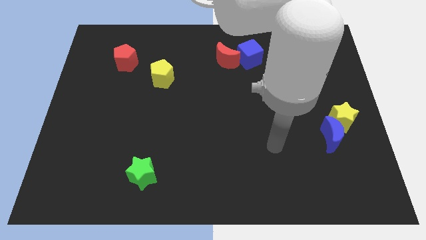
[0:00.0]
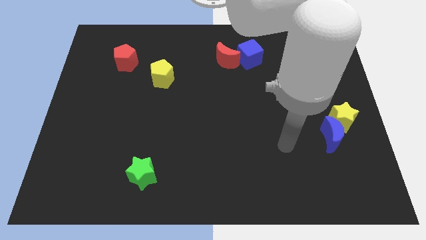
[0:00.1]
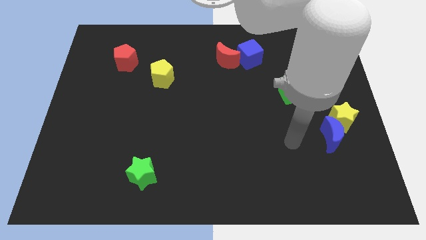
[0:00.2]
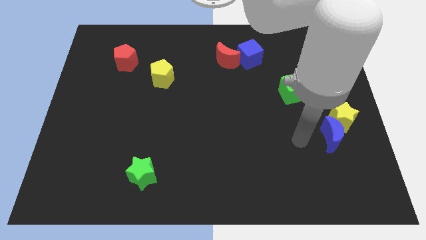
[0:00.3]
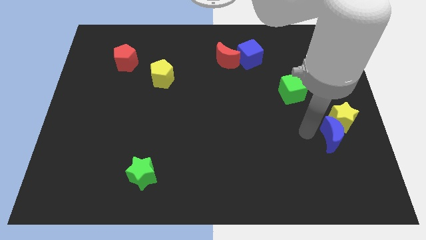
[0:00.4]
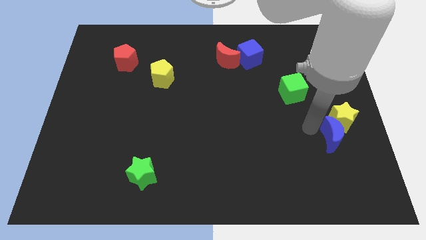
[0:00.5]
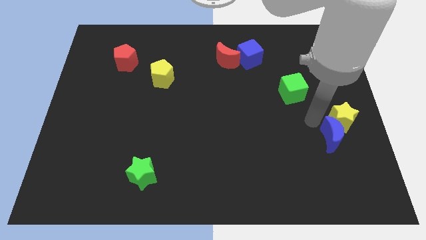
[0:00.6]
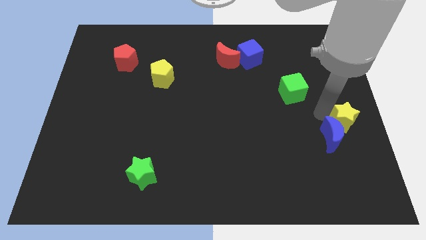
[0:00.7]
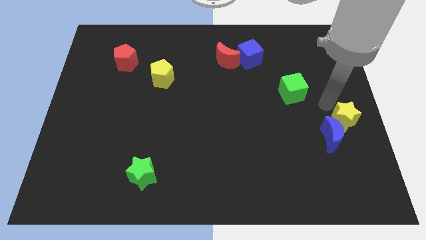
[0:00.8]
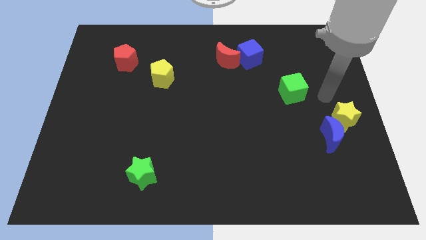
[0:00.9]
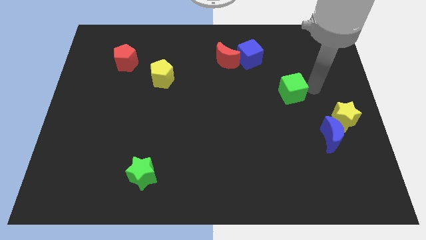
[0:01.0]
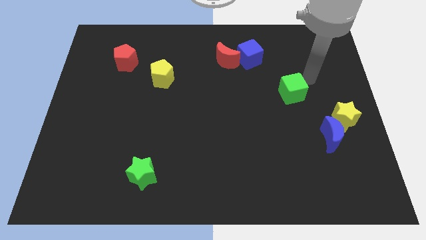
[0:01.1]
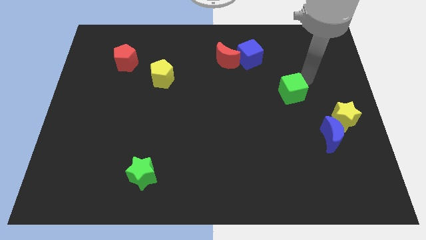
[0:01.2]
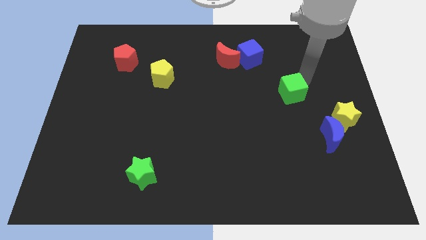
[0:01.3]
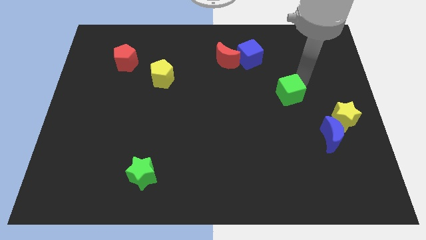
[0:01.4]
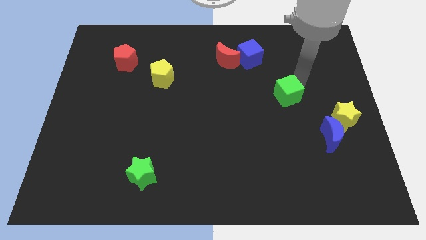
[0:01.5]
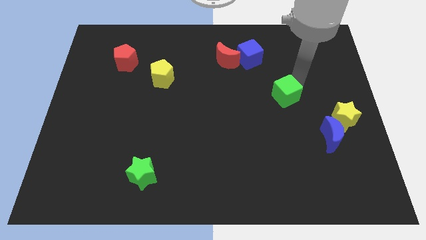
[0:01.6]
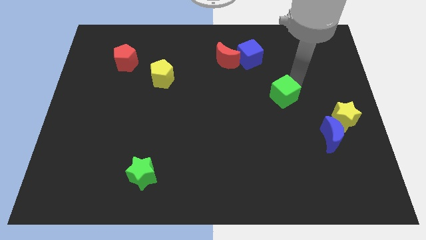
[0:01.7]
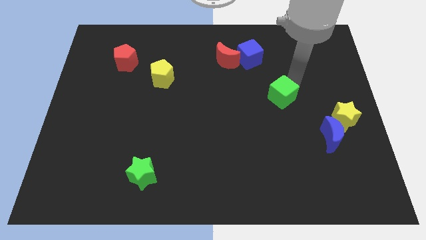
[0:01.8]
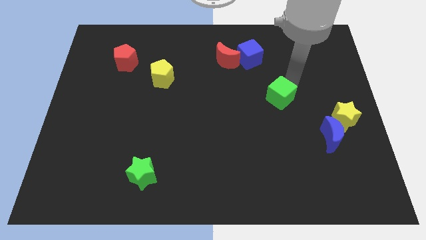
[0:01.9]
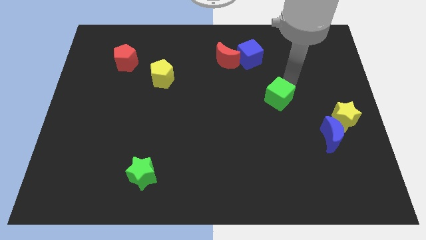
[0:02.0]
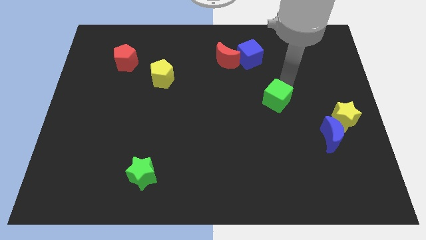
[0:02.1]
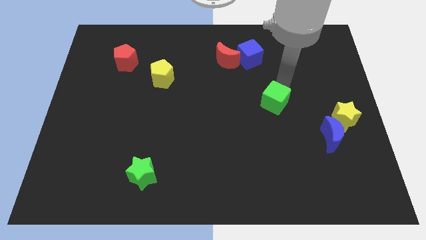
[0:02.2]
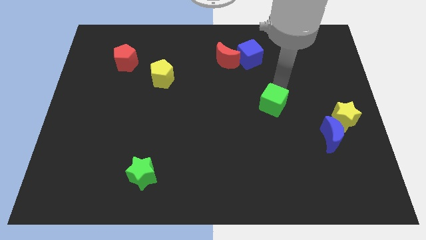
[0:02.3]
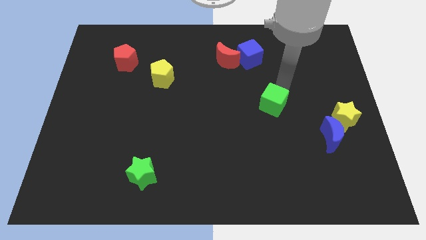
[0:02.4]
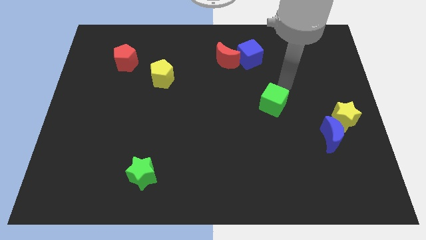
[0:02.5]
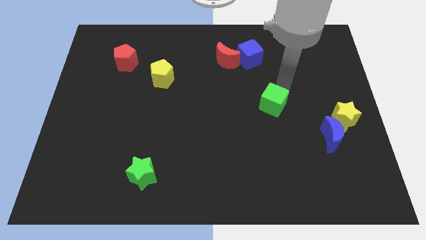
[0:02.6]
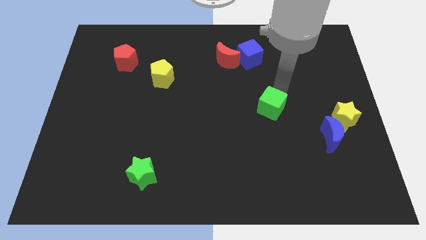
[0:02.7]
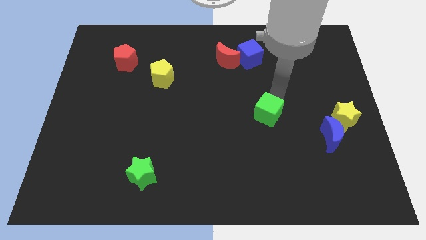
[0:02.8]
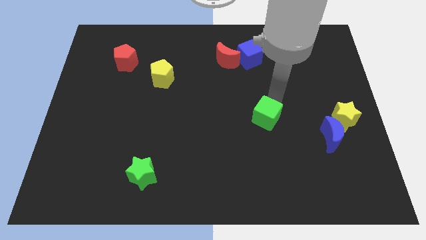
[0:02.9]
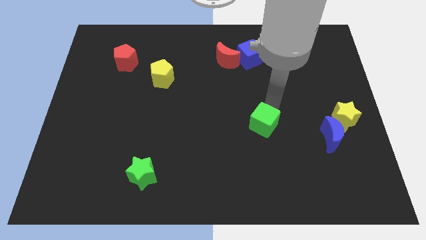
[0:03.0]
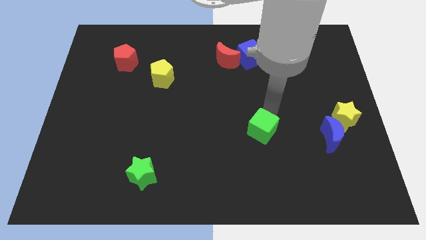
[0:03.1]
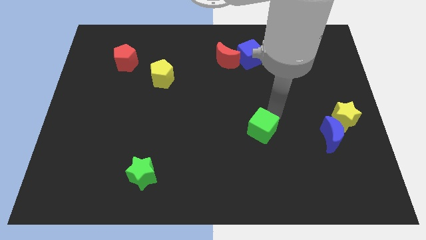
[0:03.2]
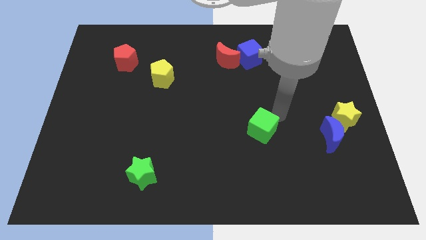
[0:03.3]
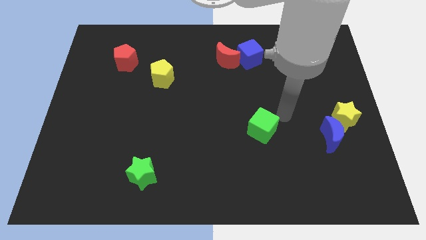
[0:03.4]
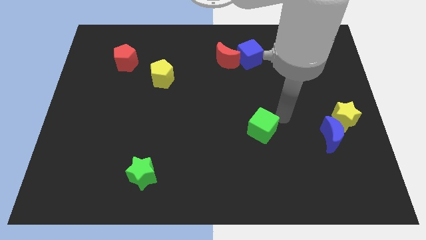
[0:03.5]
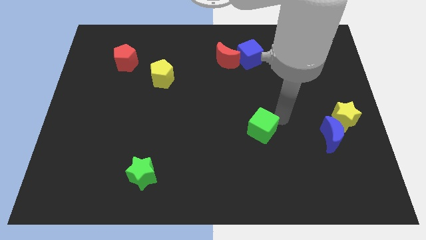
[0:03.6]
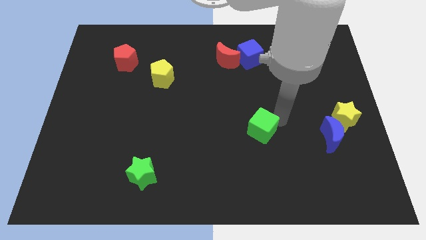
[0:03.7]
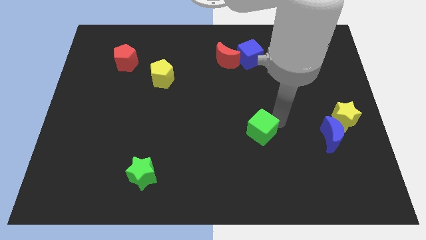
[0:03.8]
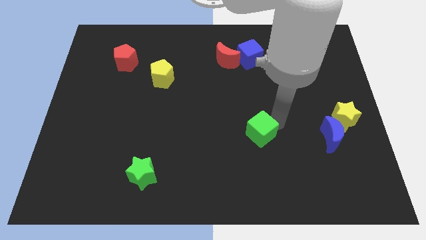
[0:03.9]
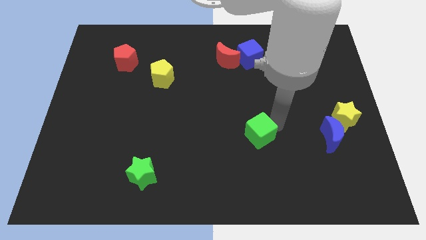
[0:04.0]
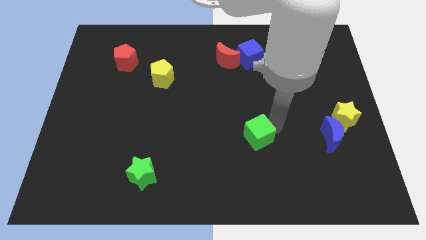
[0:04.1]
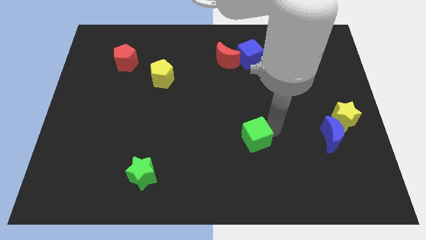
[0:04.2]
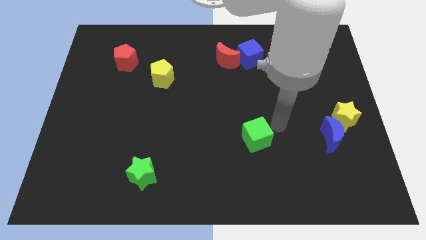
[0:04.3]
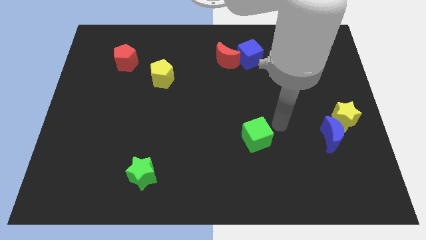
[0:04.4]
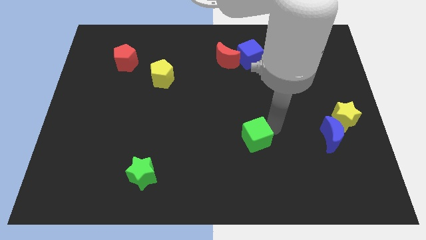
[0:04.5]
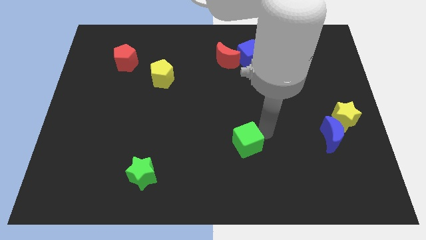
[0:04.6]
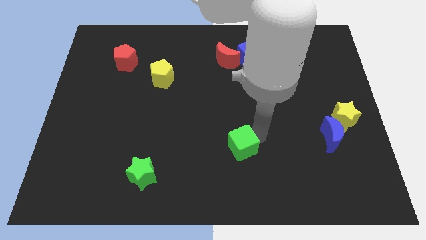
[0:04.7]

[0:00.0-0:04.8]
move the green cube diagonally down and to the left

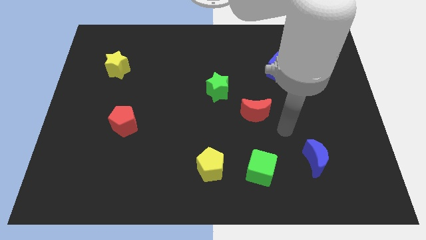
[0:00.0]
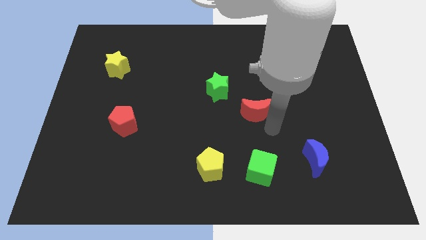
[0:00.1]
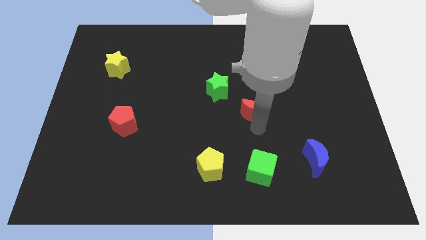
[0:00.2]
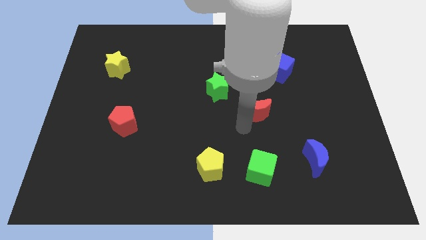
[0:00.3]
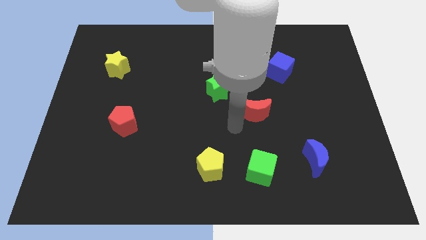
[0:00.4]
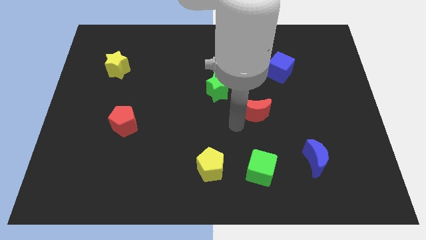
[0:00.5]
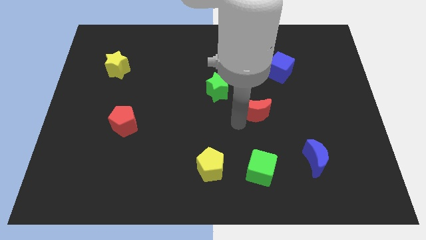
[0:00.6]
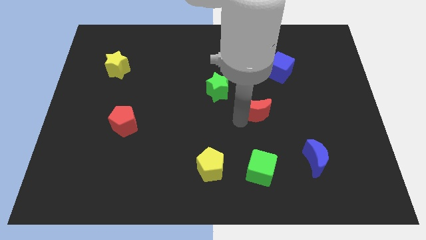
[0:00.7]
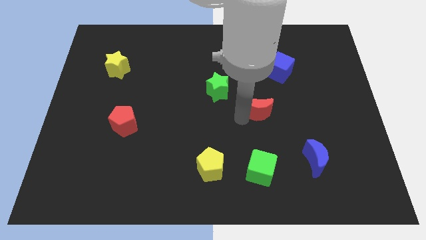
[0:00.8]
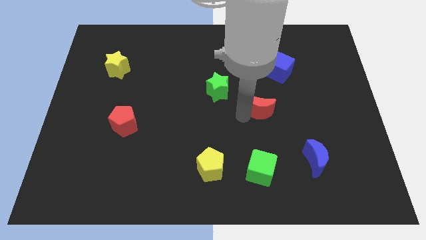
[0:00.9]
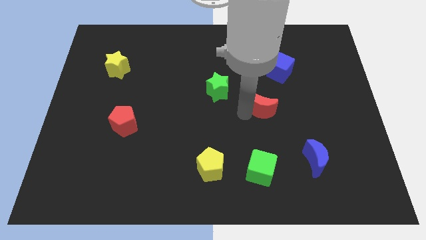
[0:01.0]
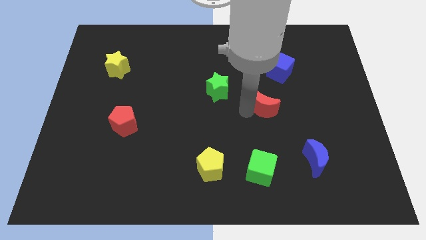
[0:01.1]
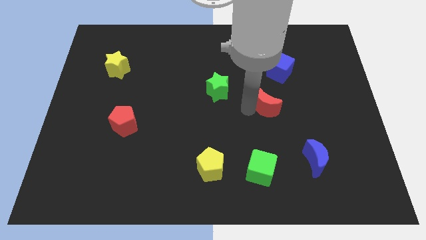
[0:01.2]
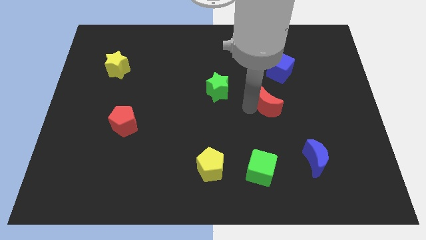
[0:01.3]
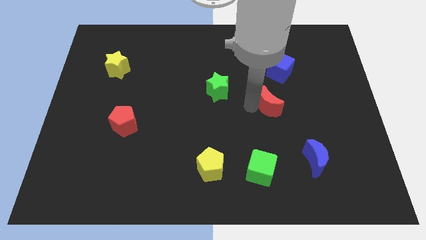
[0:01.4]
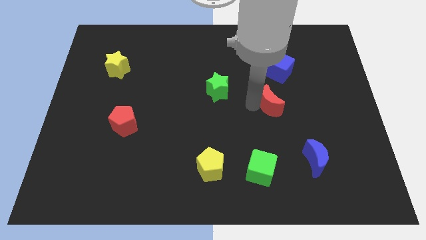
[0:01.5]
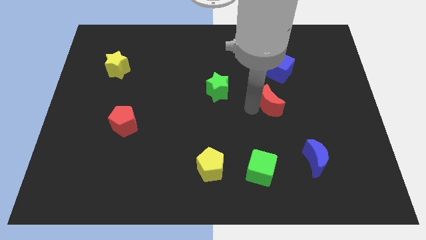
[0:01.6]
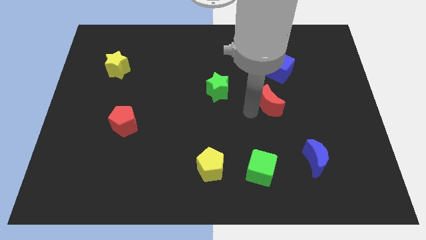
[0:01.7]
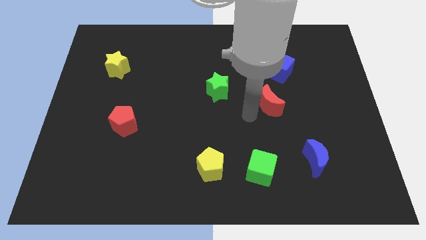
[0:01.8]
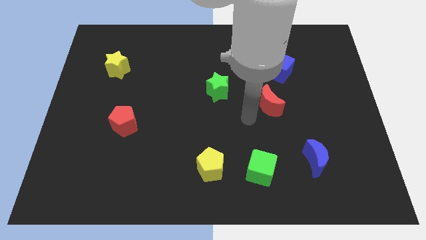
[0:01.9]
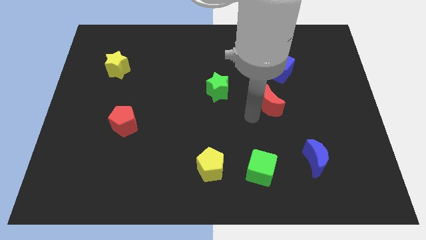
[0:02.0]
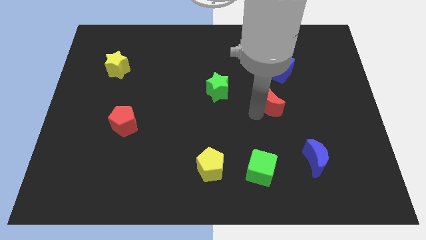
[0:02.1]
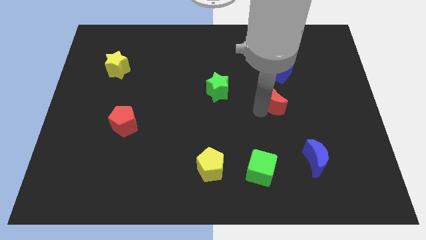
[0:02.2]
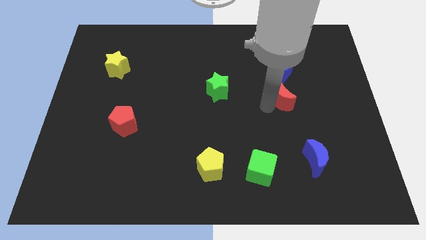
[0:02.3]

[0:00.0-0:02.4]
slide the red moon somewhat up and right diagonally

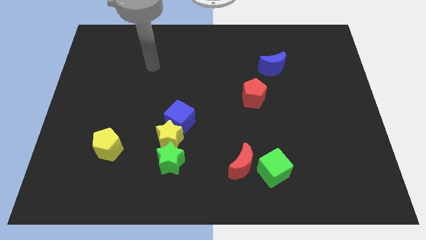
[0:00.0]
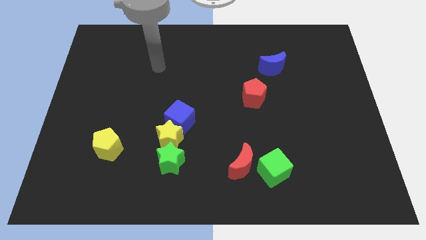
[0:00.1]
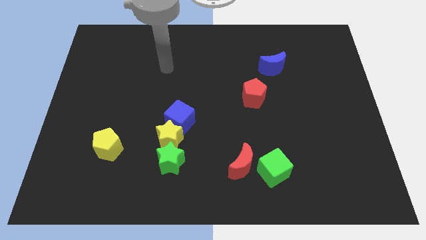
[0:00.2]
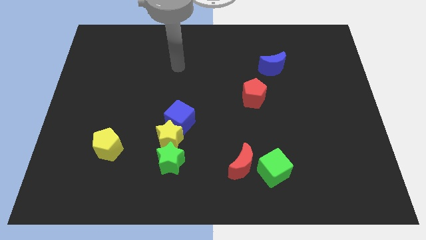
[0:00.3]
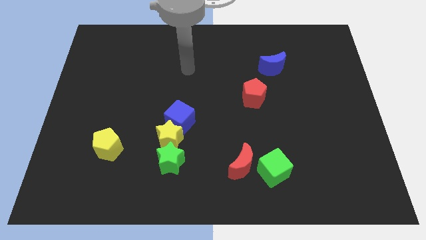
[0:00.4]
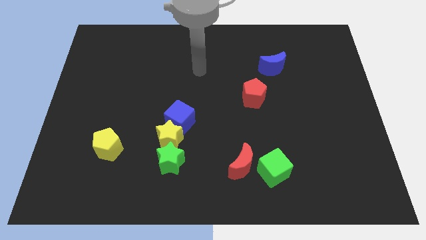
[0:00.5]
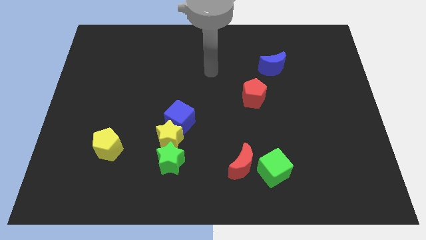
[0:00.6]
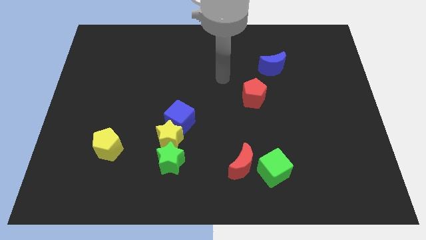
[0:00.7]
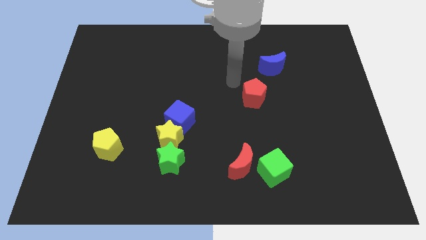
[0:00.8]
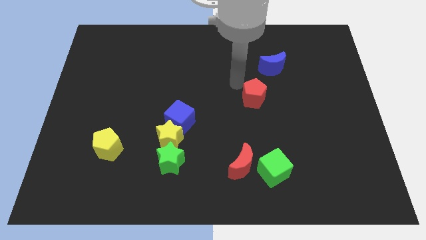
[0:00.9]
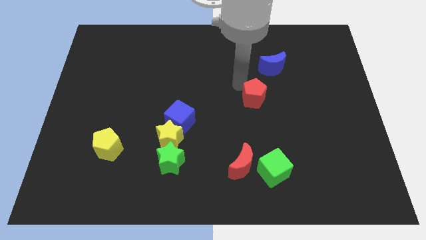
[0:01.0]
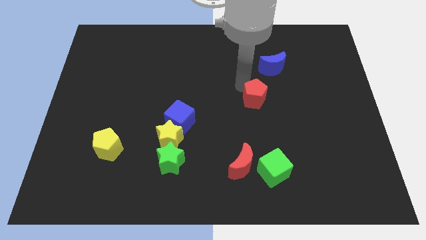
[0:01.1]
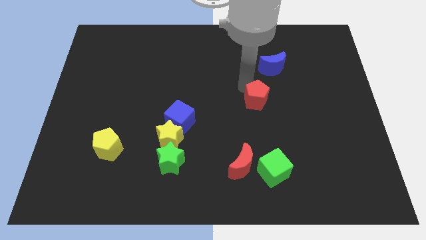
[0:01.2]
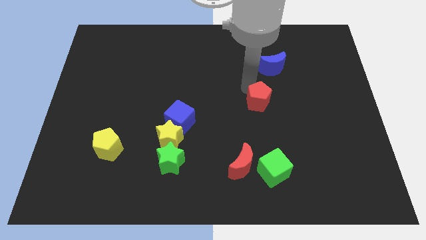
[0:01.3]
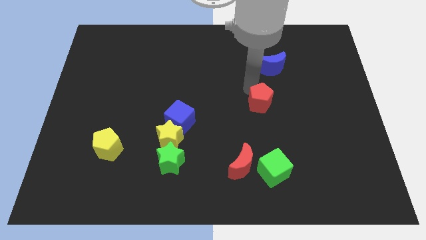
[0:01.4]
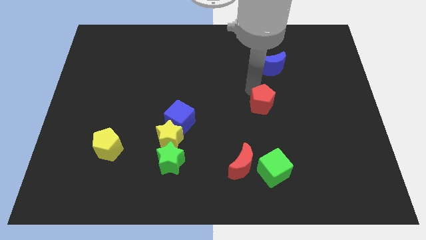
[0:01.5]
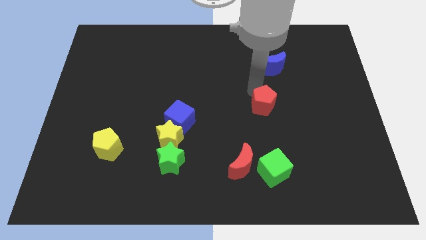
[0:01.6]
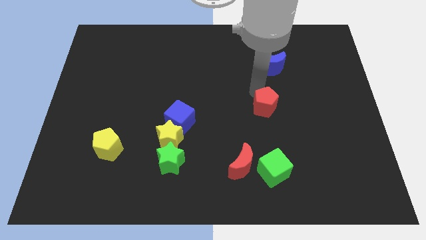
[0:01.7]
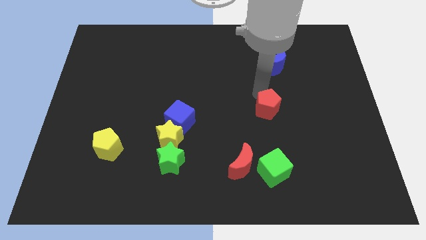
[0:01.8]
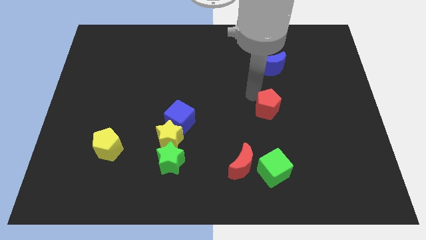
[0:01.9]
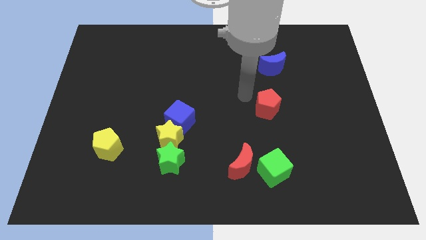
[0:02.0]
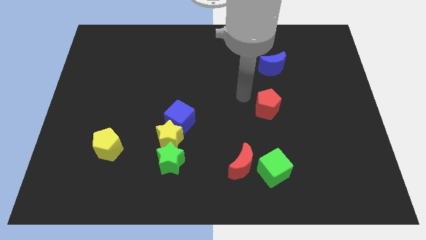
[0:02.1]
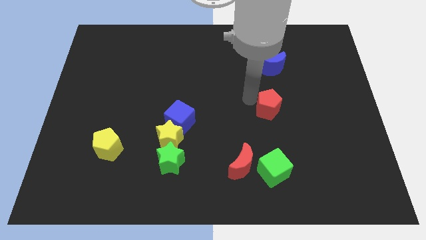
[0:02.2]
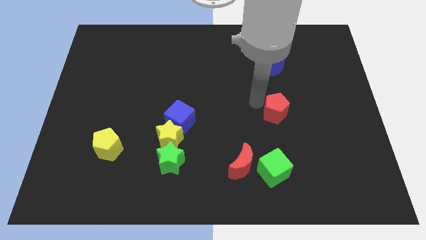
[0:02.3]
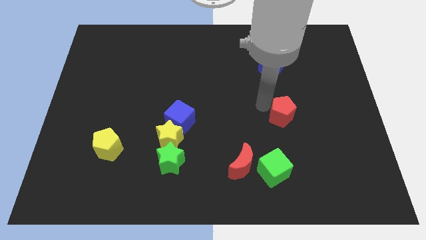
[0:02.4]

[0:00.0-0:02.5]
slide the red pentagon somewhat downwards and right
